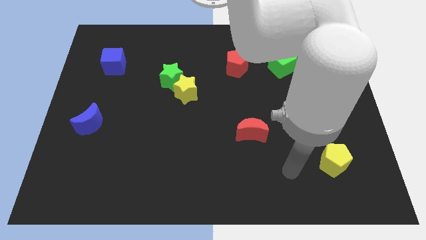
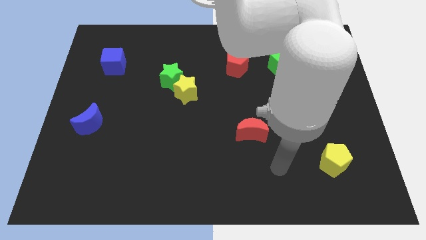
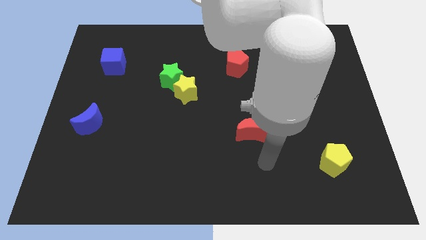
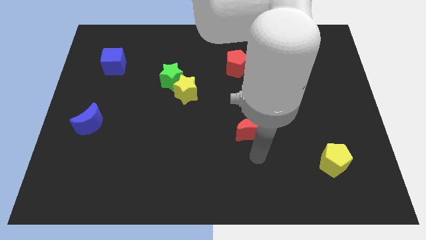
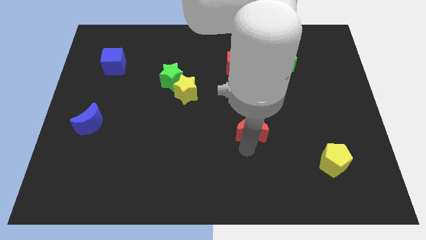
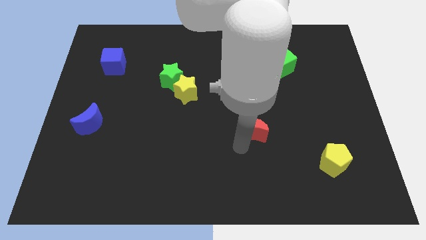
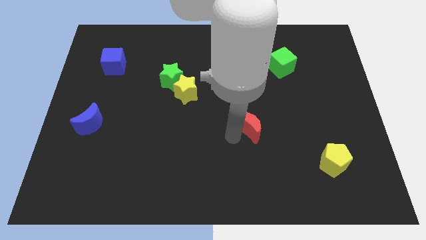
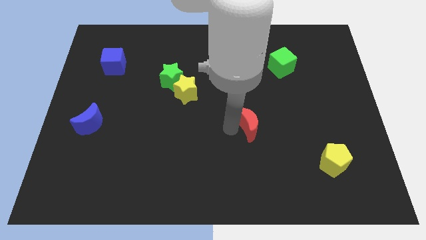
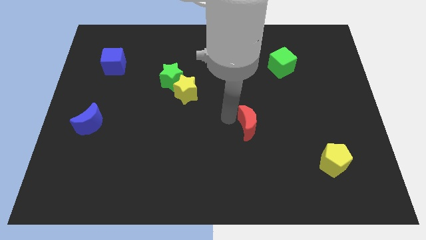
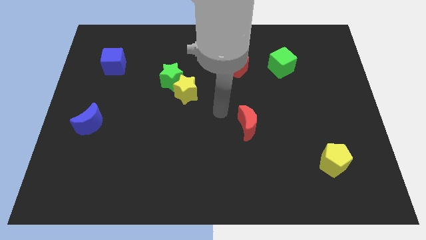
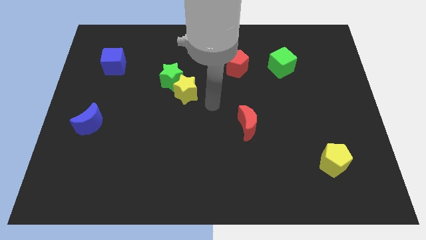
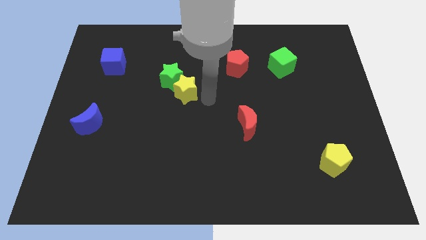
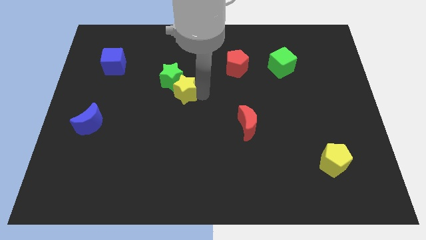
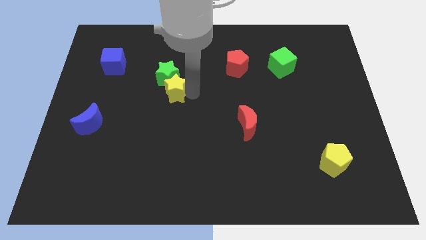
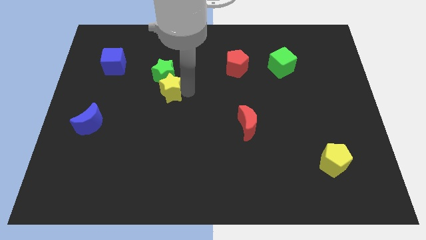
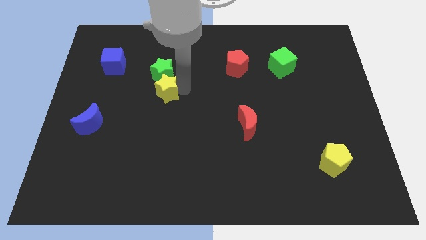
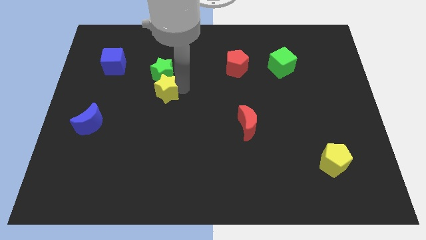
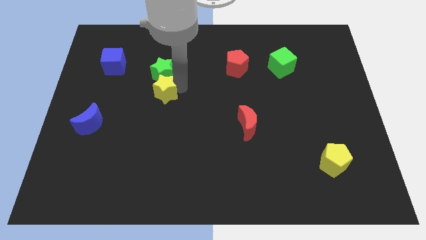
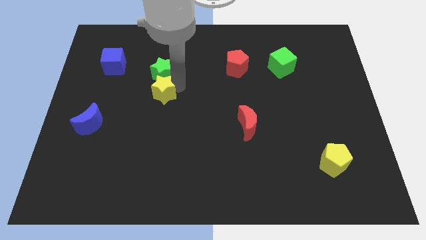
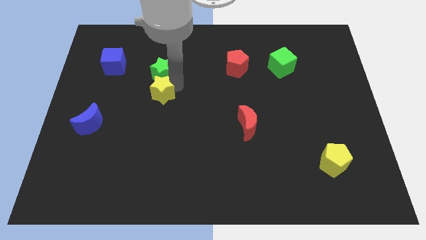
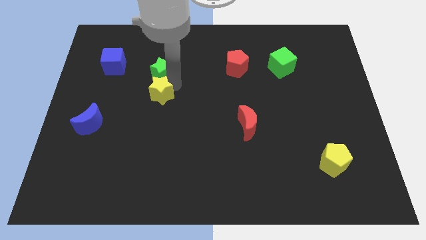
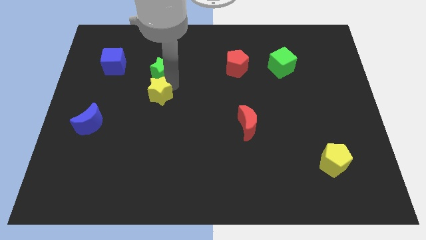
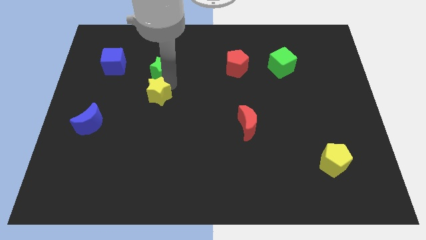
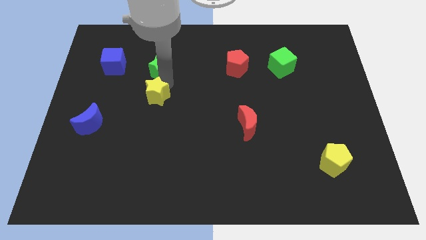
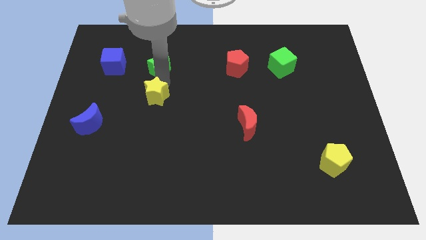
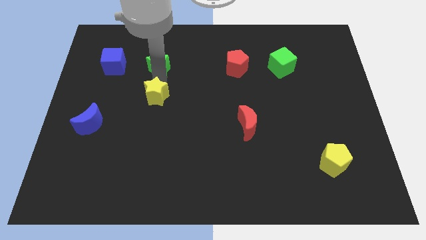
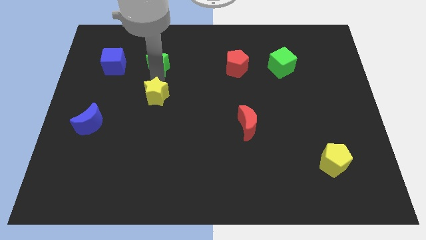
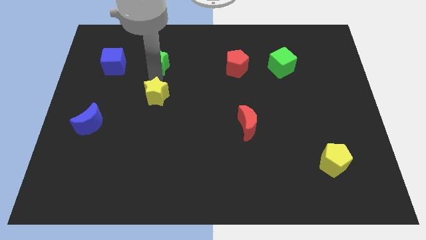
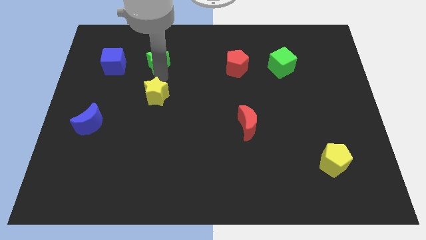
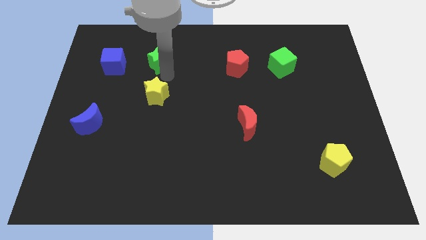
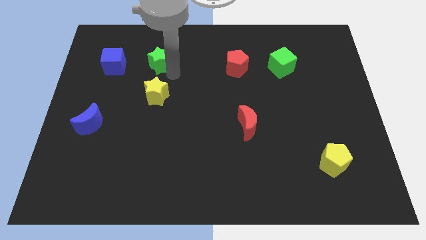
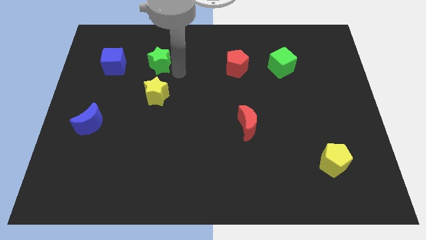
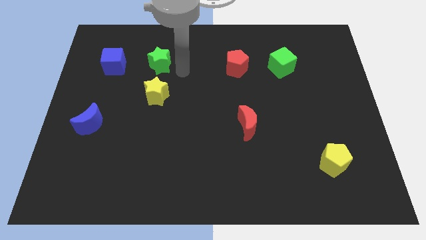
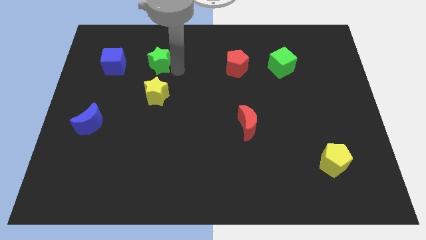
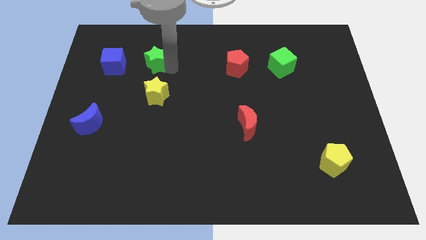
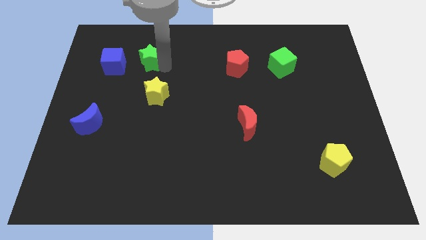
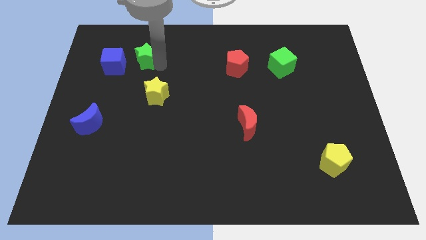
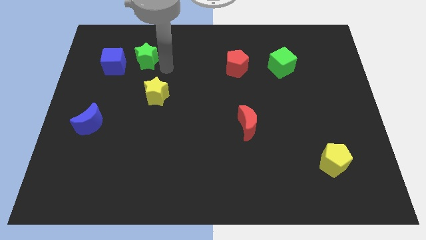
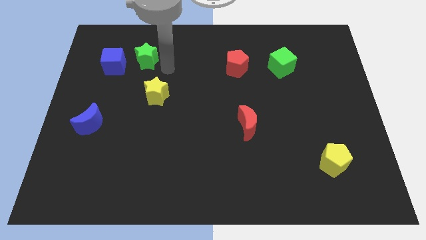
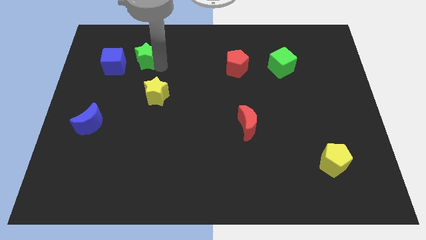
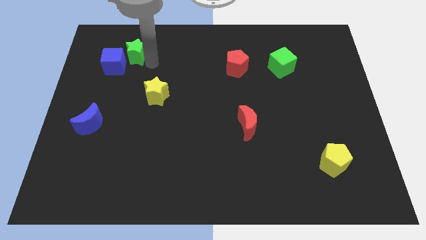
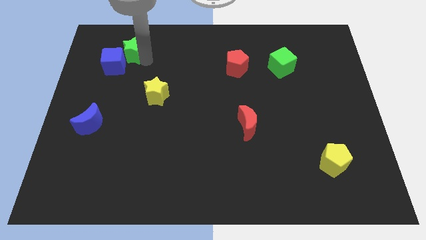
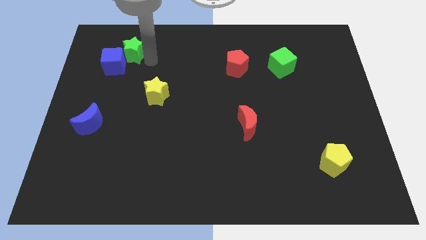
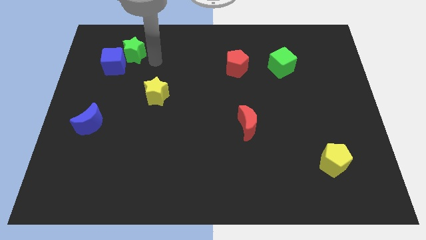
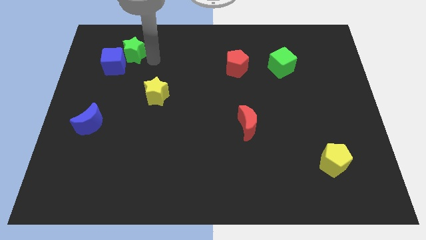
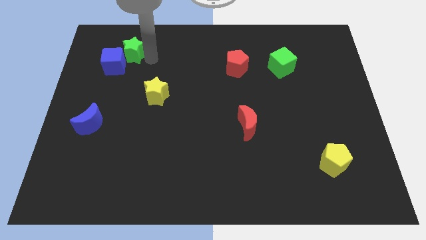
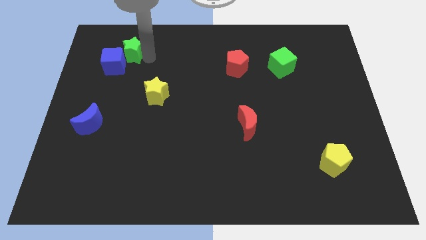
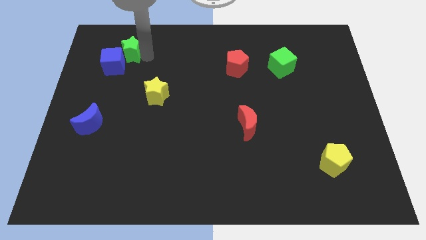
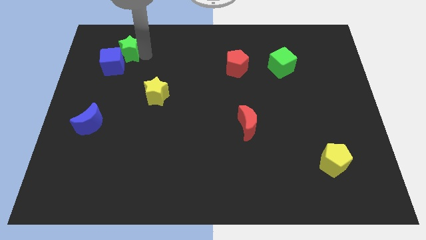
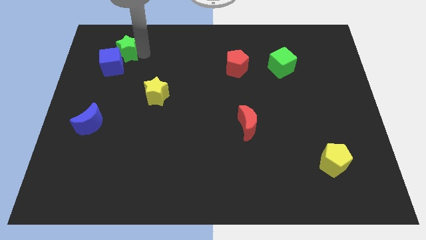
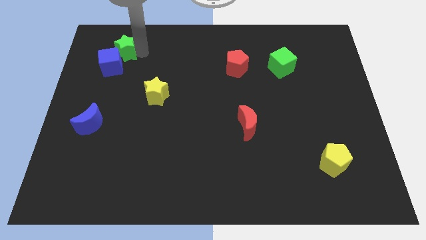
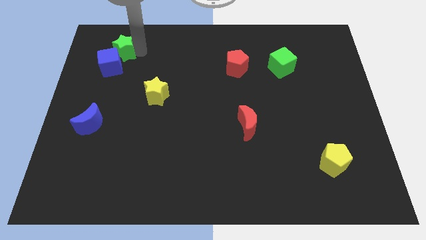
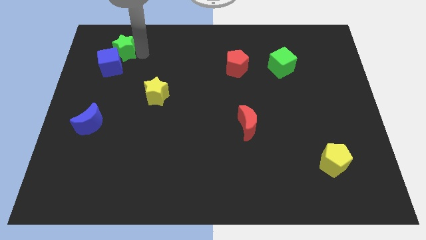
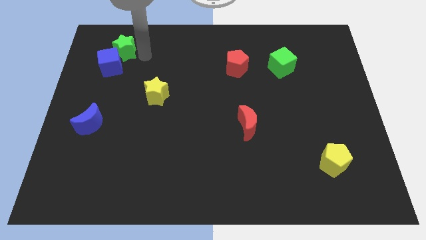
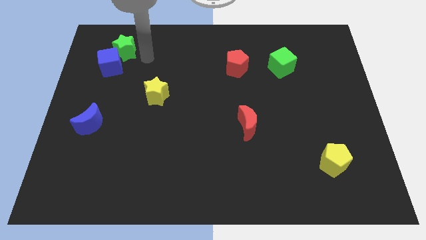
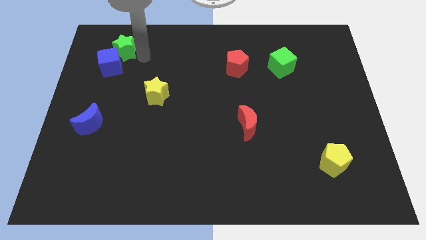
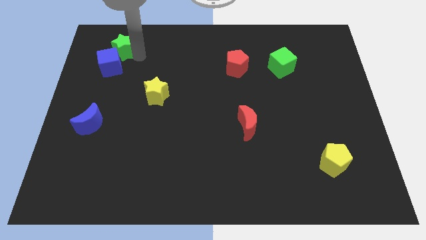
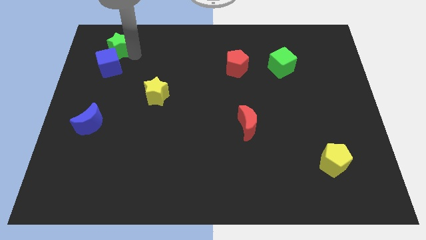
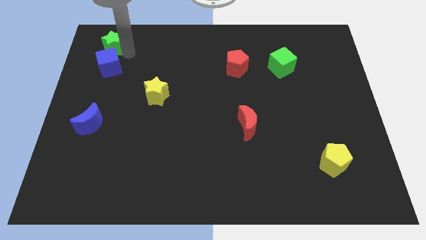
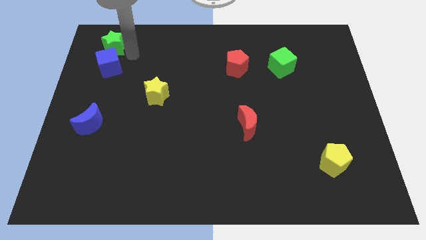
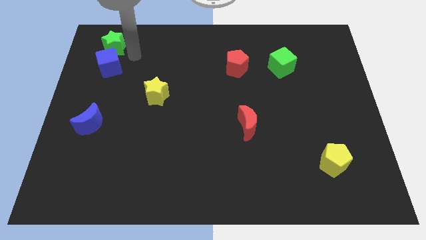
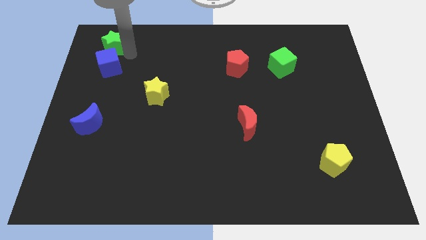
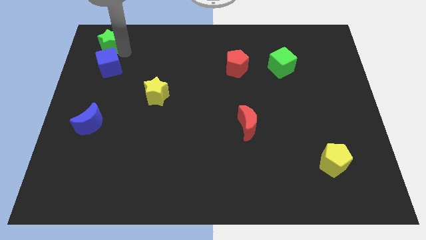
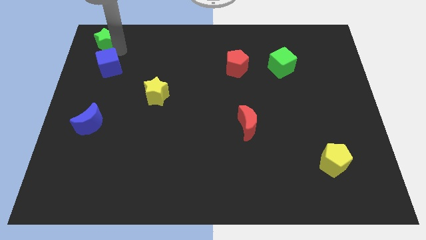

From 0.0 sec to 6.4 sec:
slide the green star to the top left corner

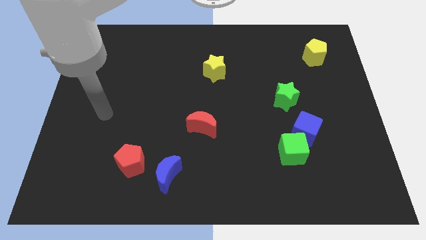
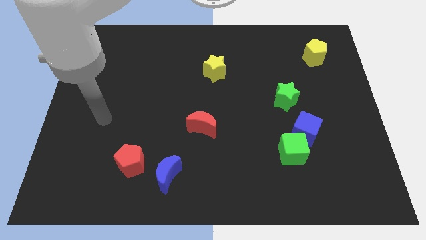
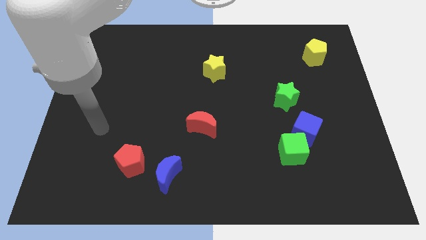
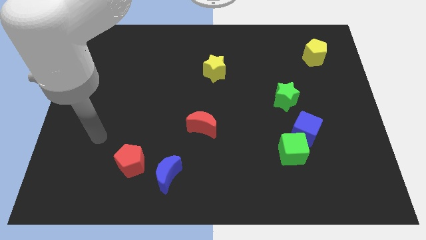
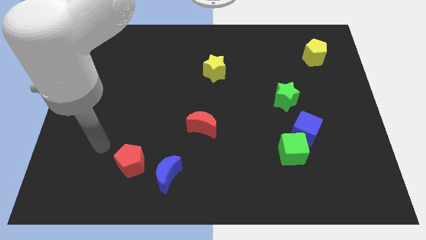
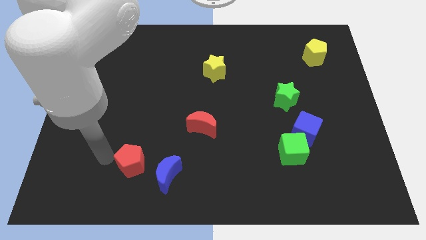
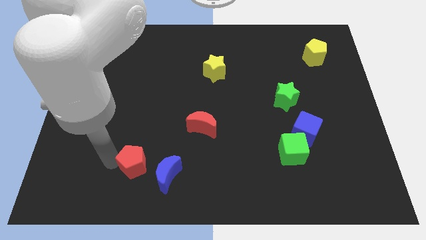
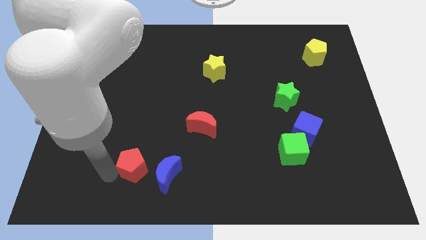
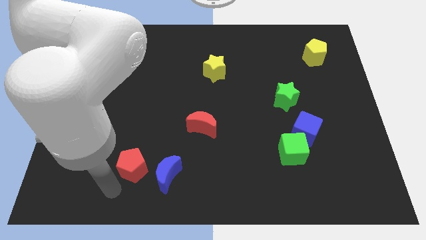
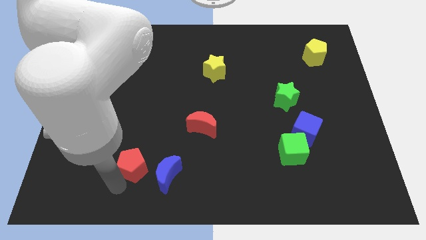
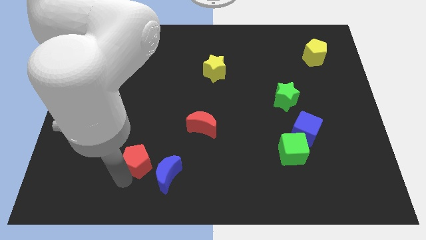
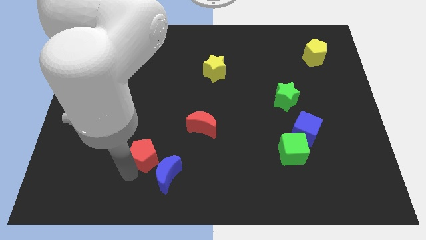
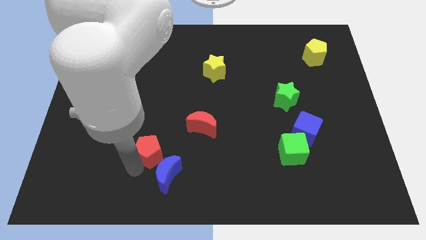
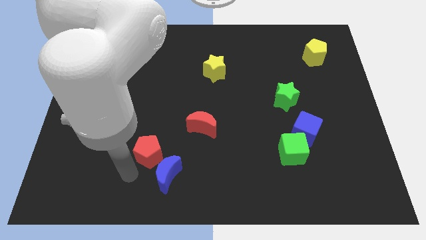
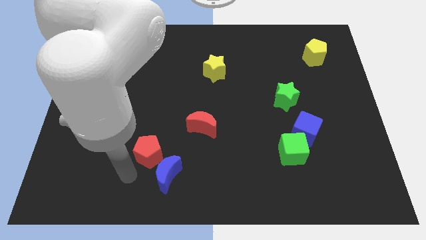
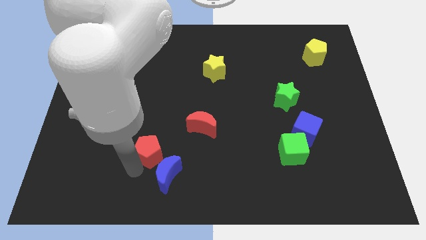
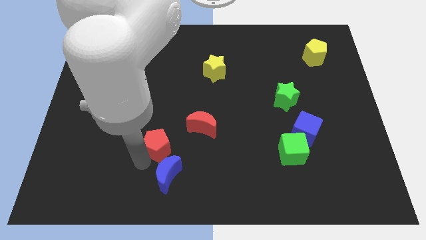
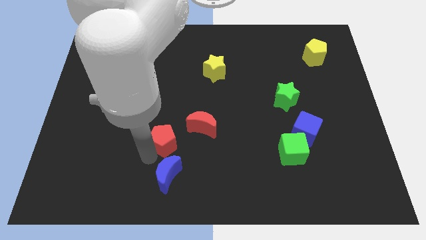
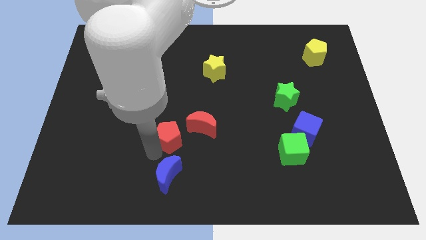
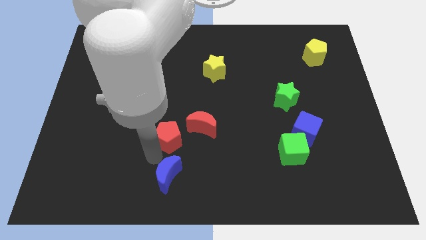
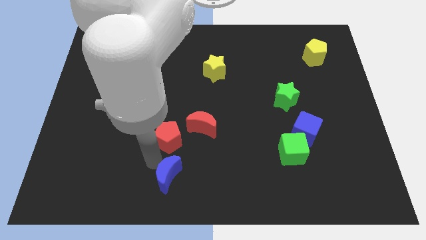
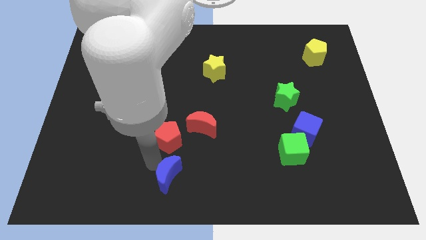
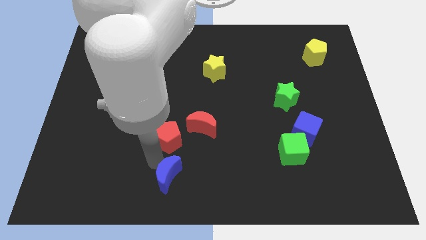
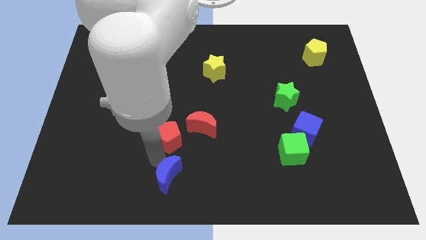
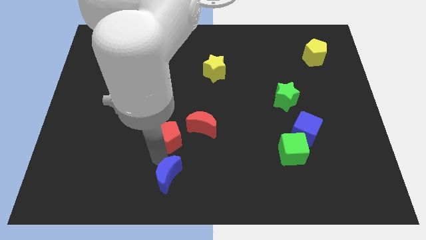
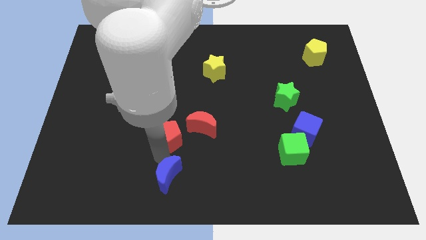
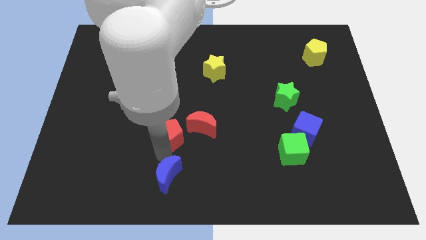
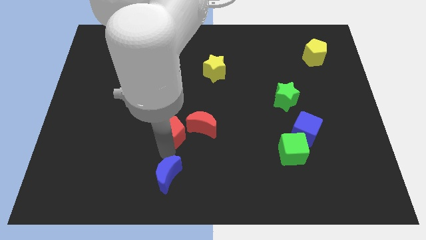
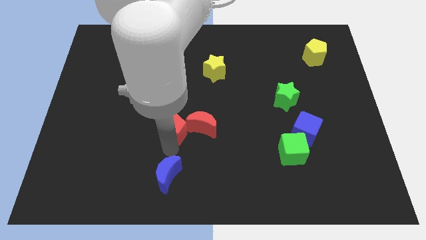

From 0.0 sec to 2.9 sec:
put the red pentagon to the center of the board
